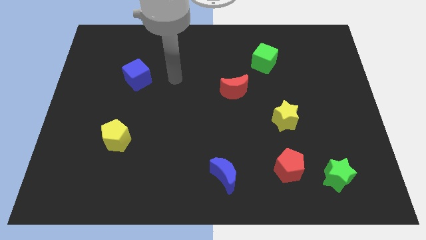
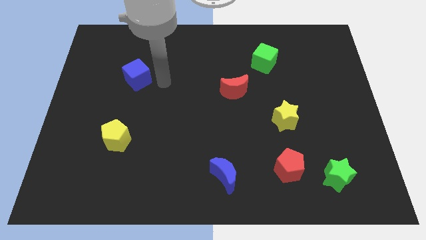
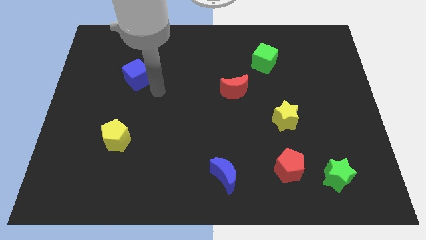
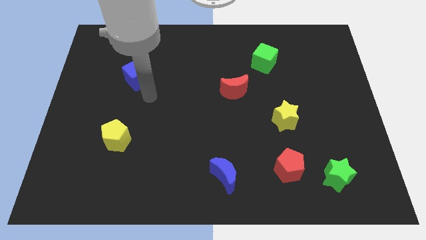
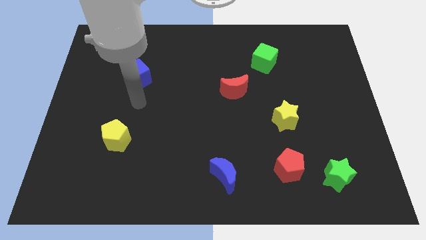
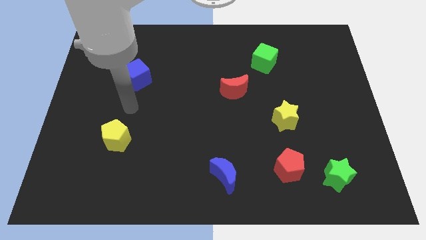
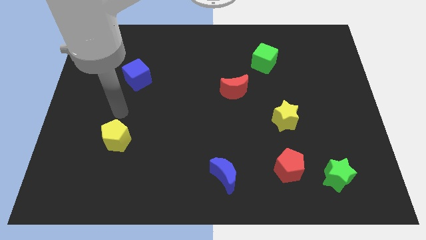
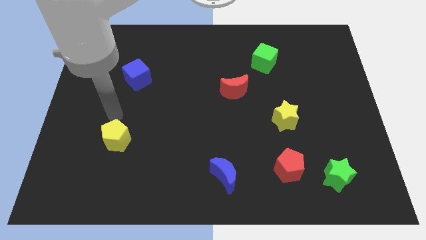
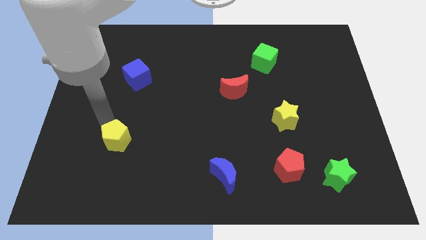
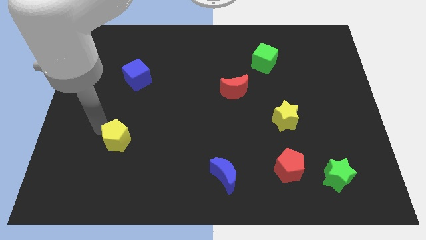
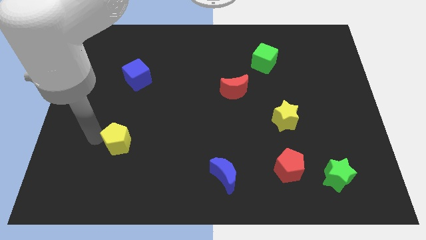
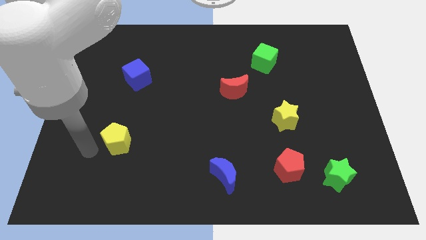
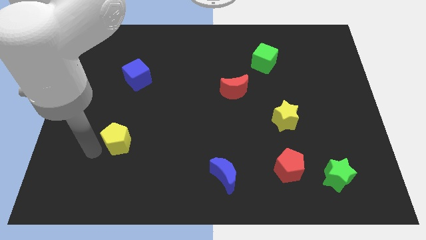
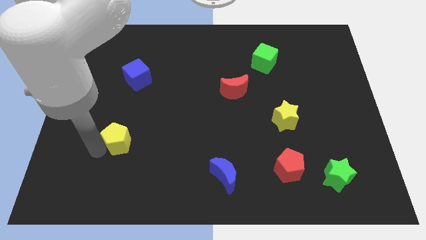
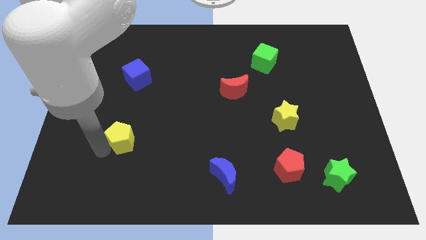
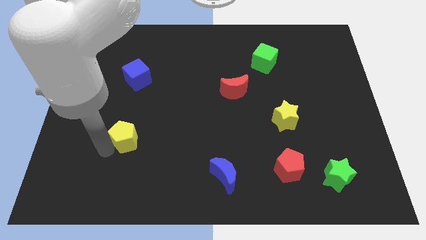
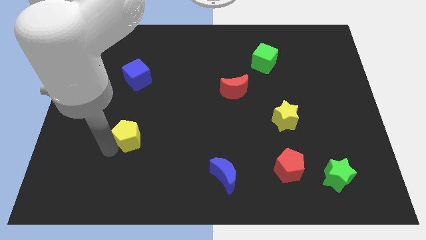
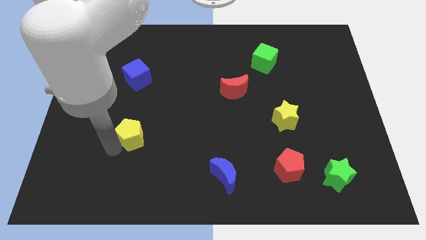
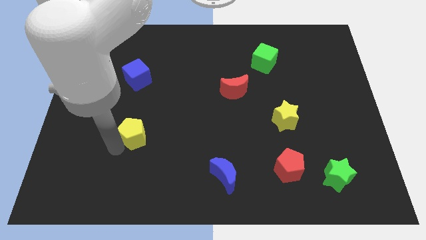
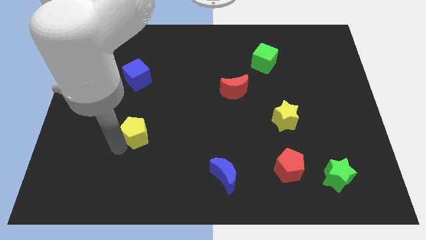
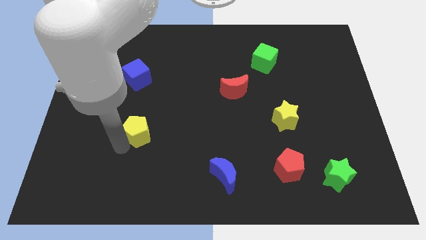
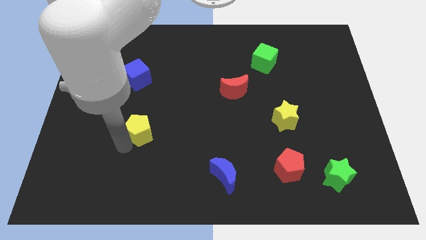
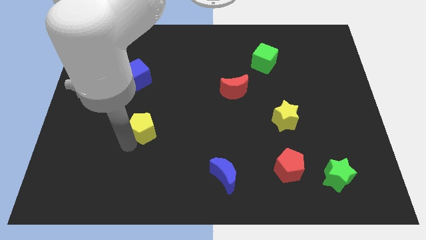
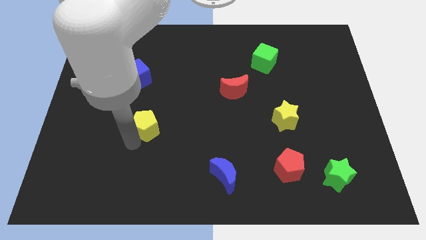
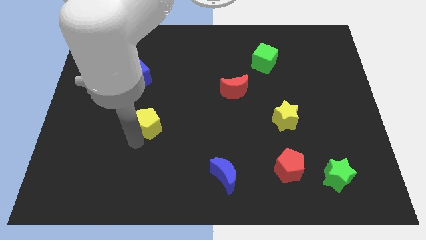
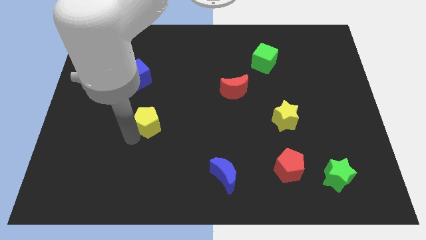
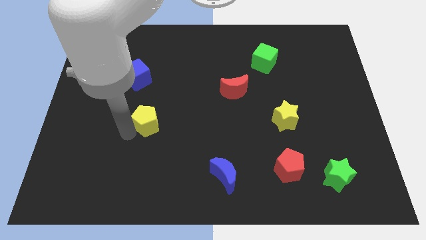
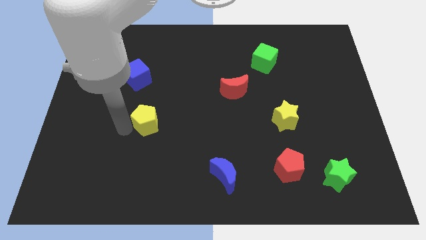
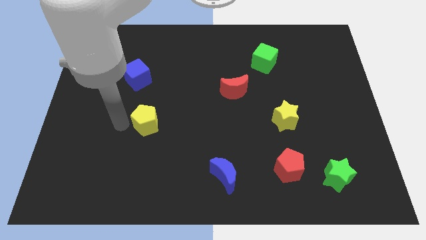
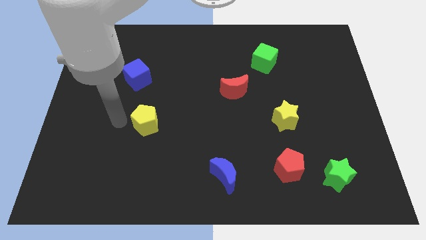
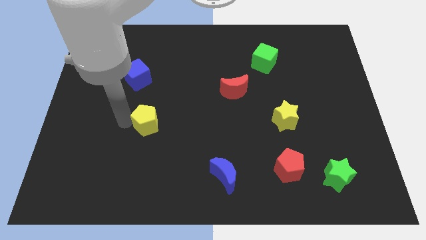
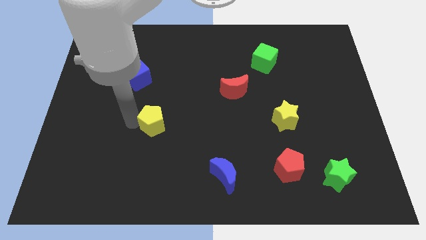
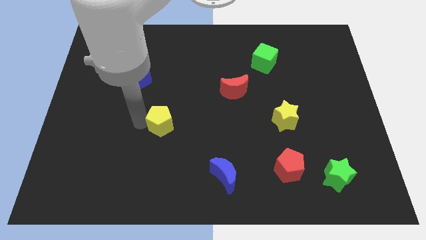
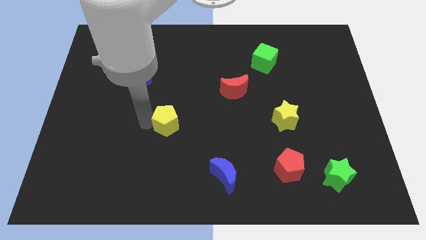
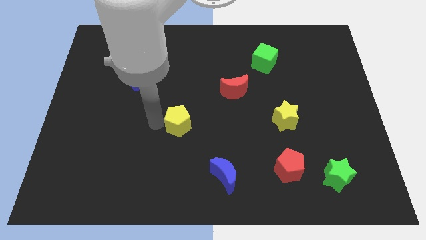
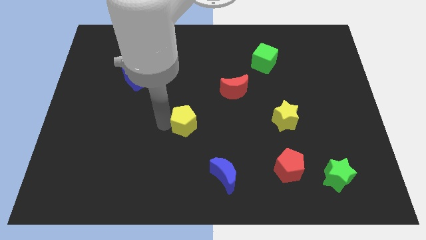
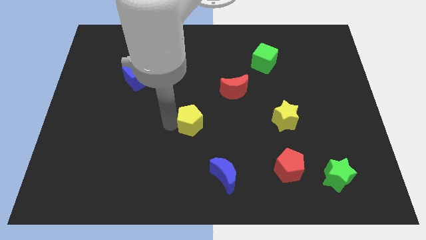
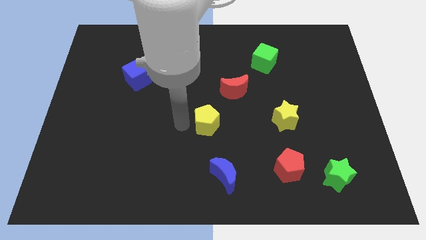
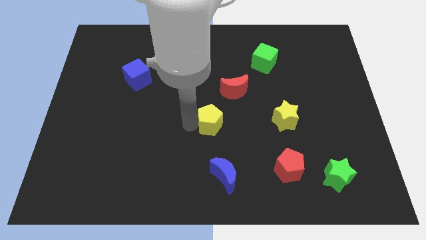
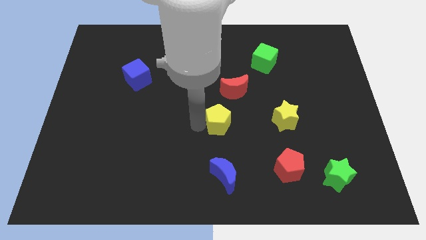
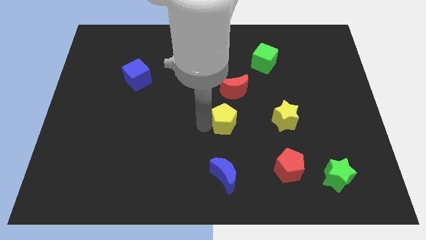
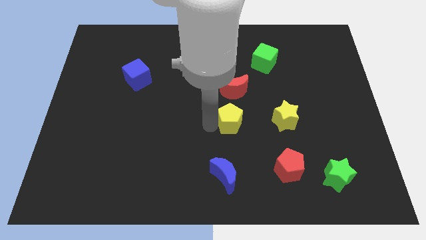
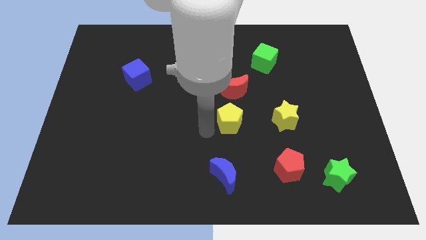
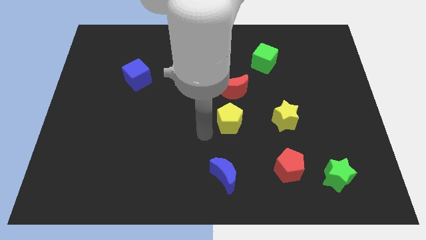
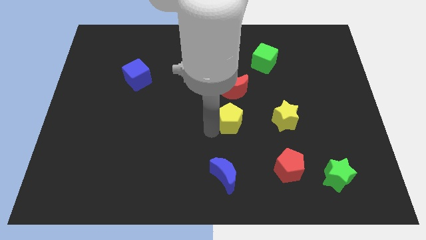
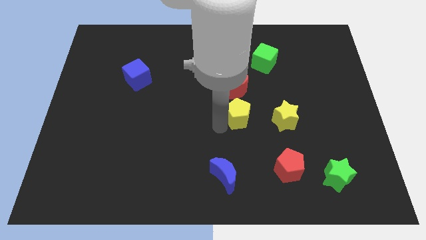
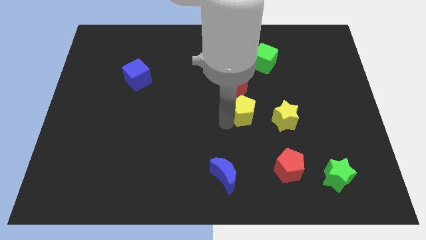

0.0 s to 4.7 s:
push the yellow pentagon to the bottom right side of the red moon

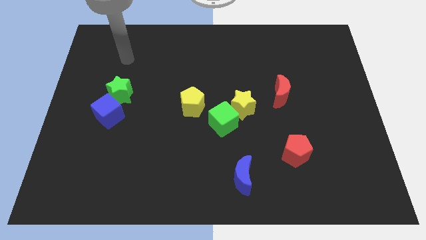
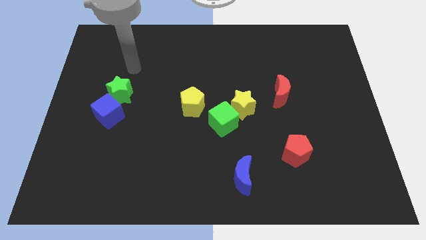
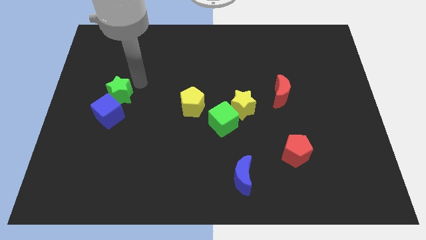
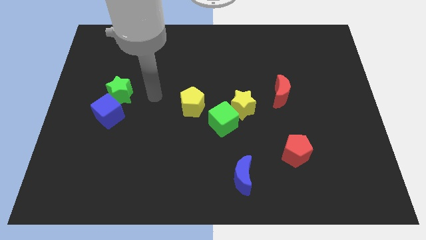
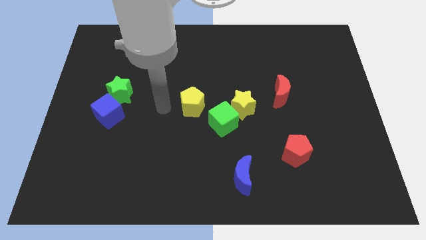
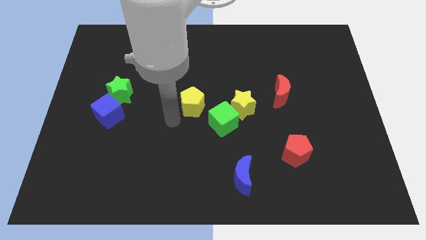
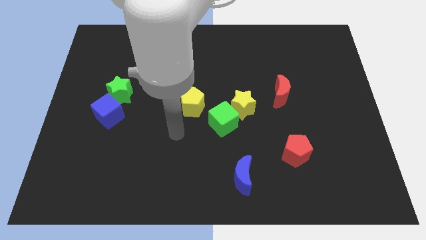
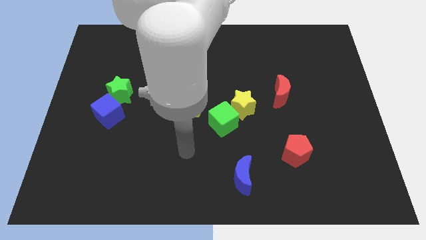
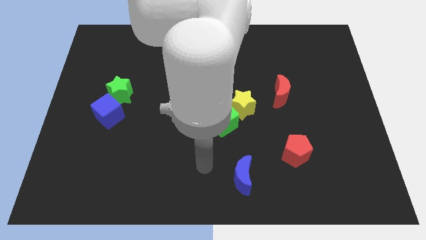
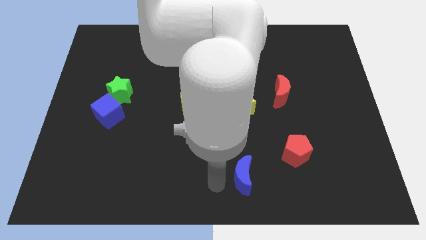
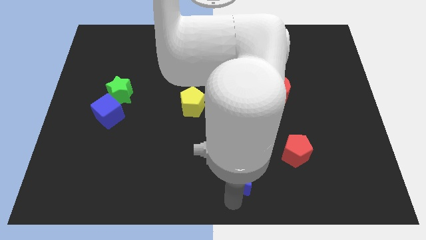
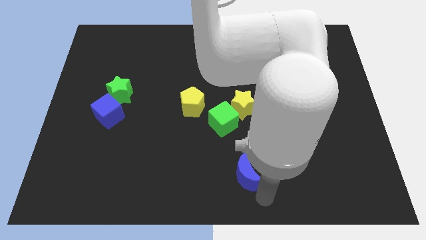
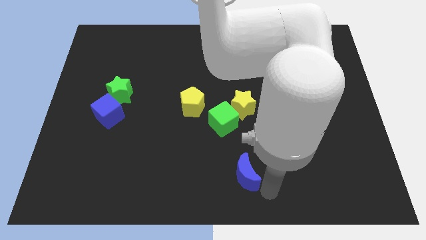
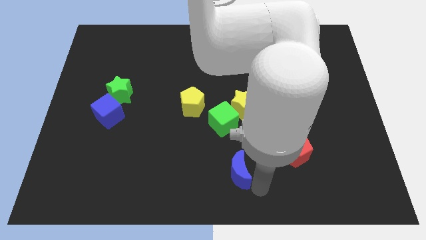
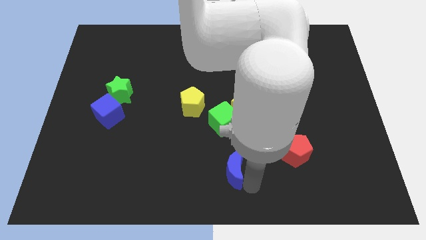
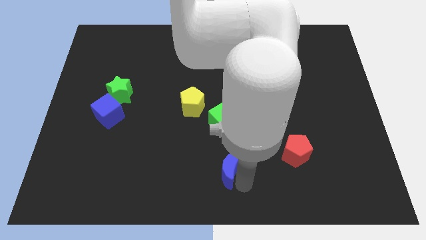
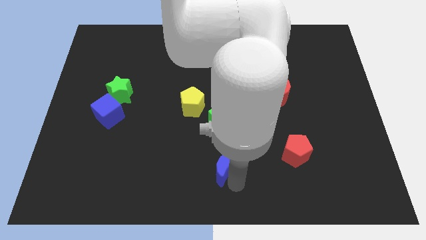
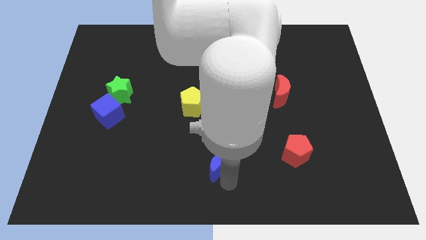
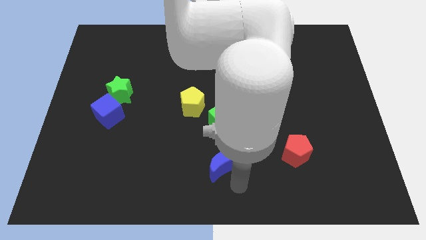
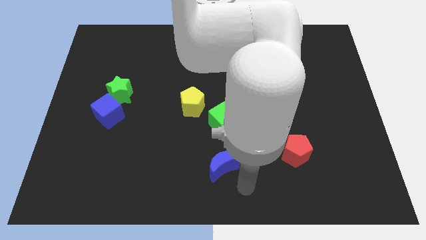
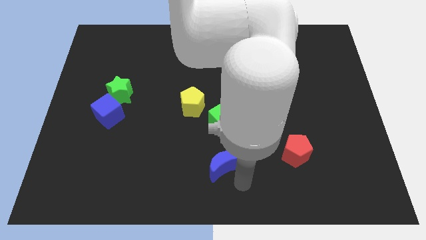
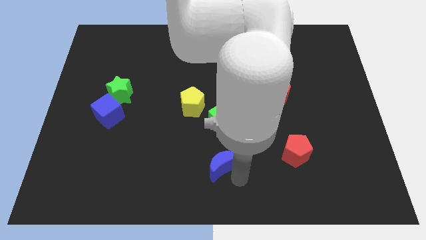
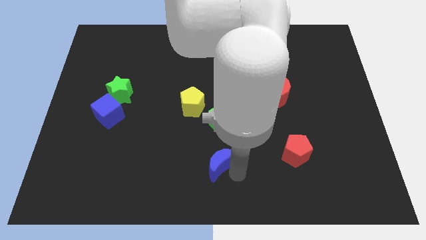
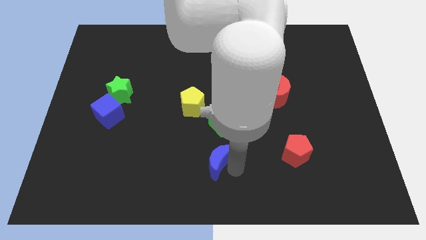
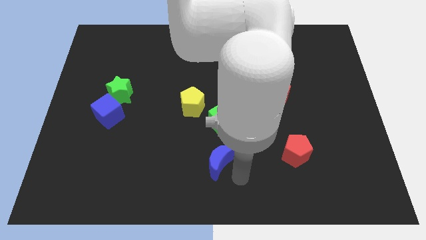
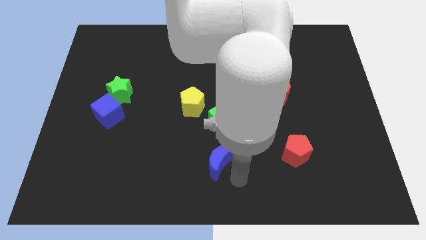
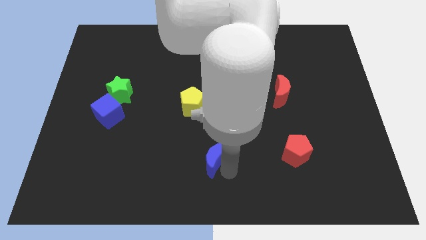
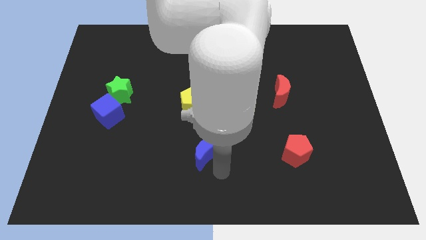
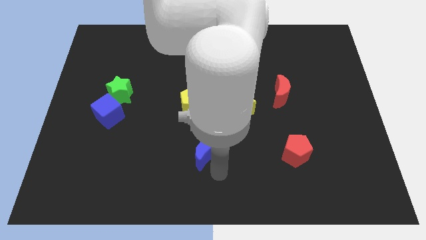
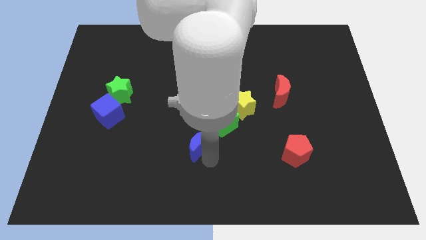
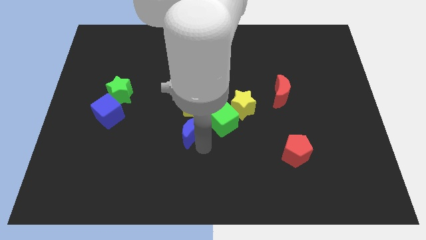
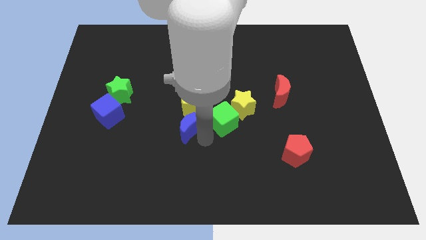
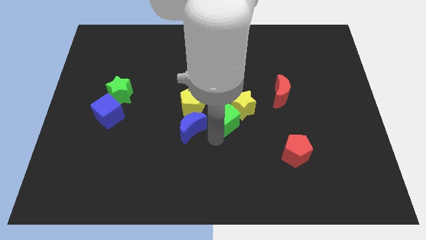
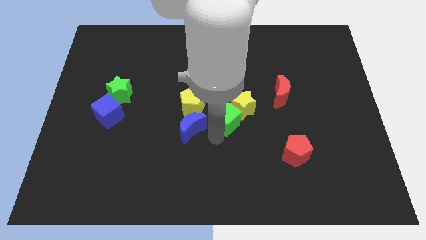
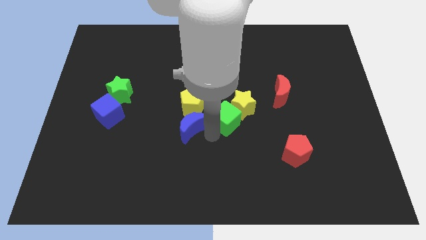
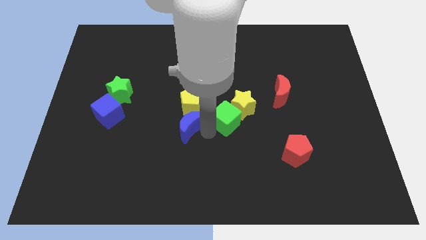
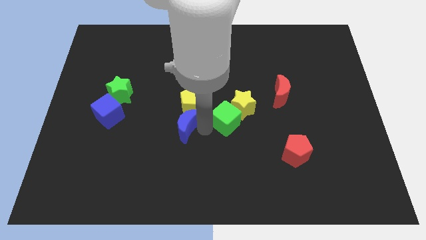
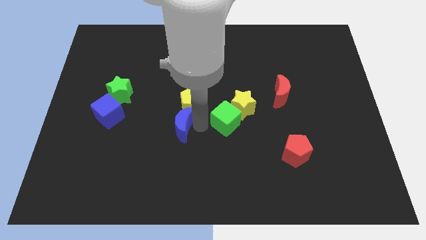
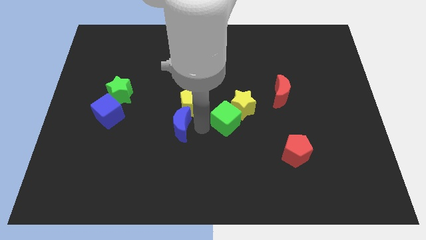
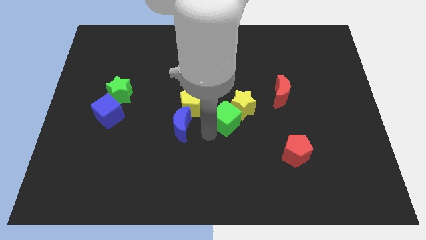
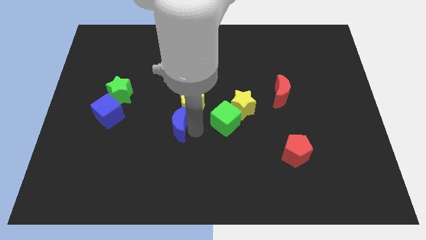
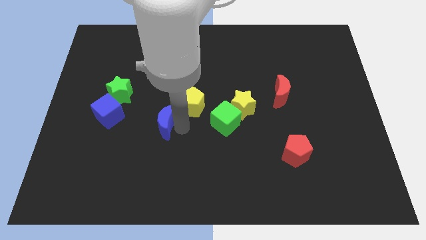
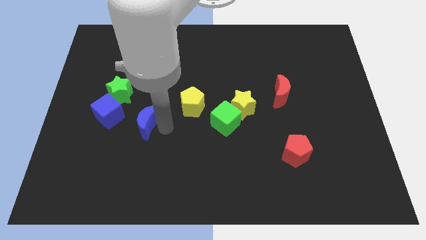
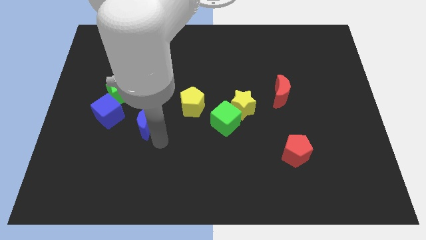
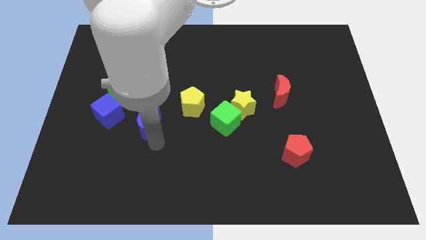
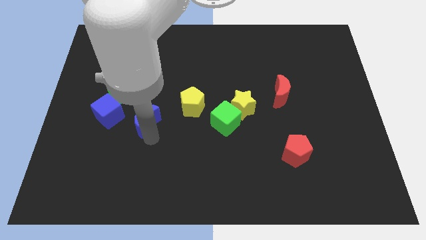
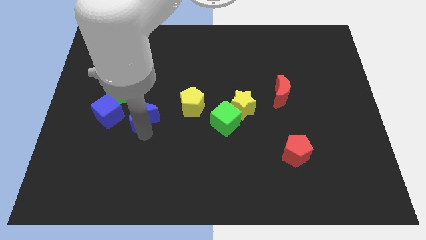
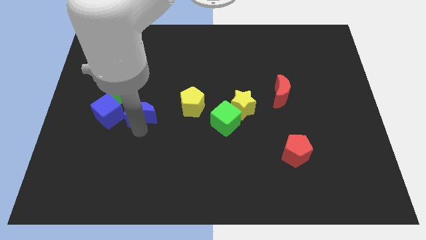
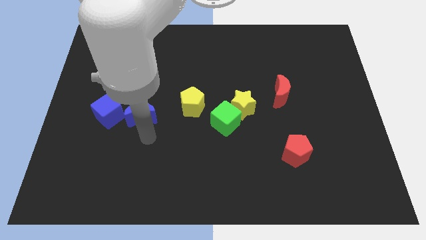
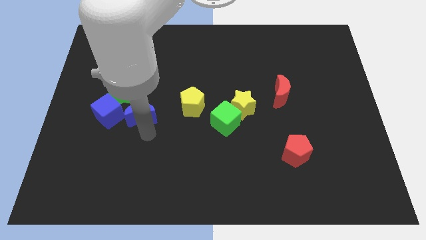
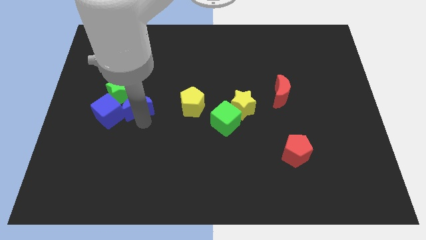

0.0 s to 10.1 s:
move the blue moon to the top right side of the blue cube
